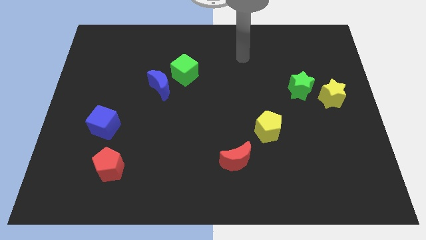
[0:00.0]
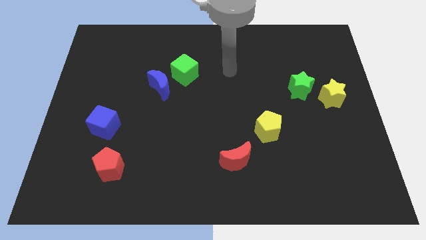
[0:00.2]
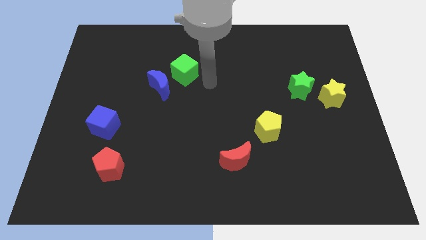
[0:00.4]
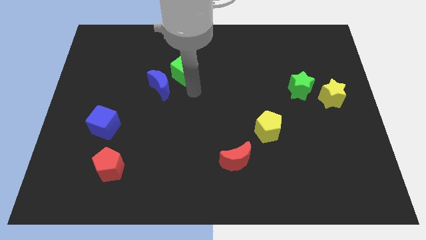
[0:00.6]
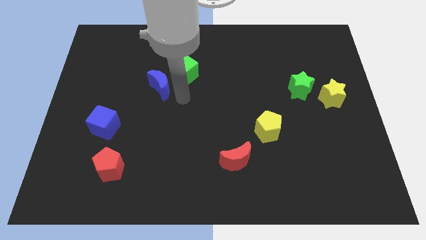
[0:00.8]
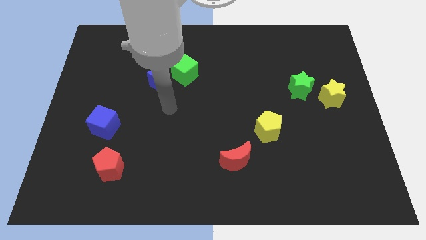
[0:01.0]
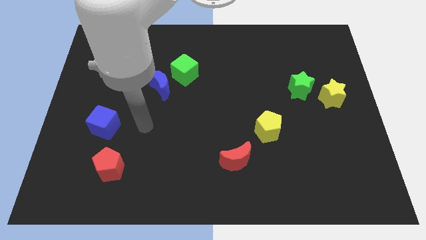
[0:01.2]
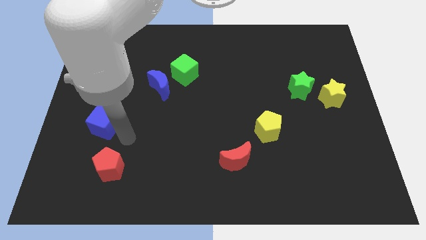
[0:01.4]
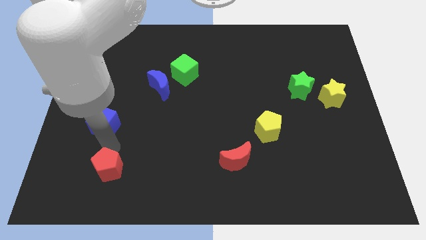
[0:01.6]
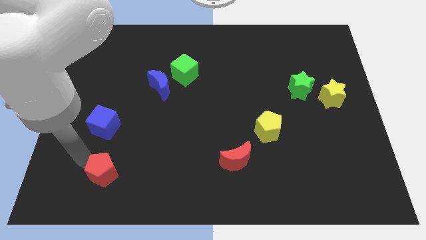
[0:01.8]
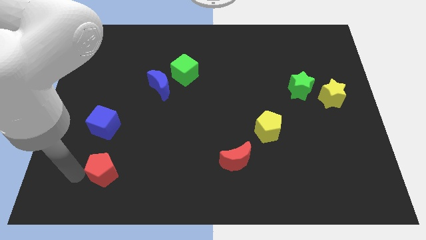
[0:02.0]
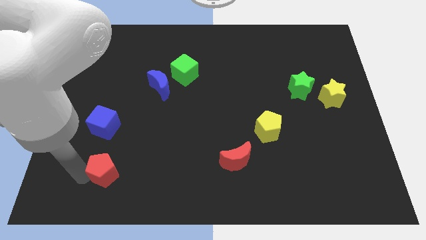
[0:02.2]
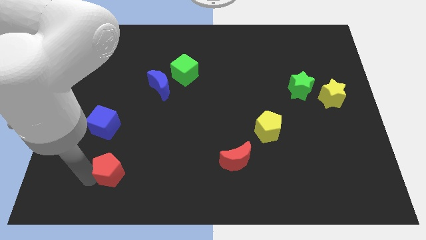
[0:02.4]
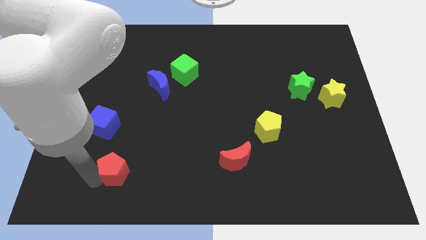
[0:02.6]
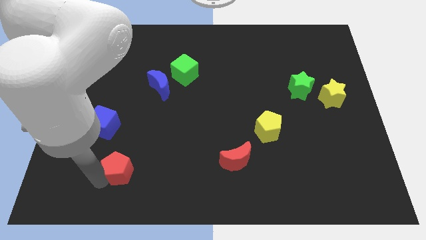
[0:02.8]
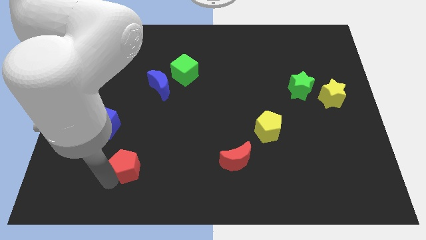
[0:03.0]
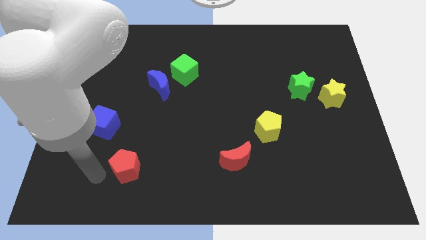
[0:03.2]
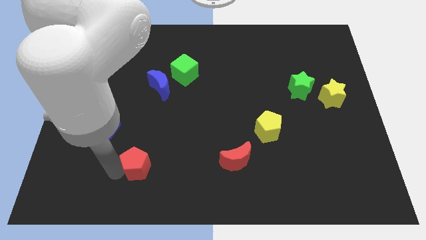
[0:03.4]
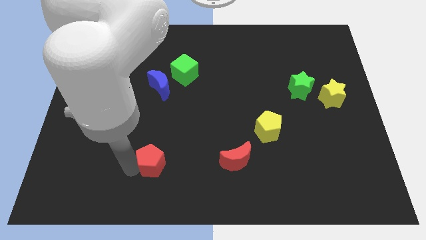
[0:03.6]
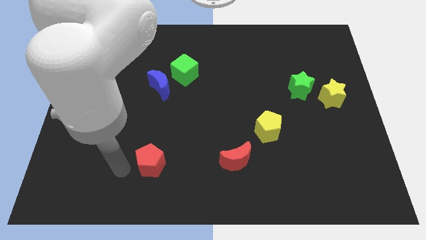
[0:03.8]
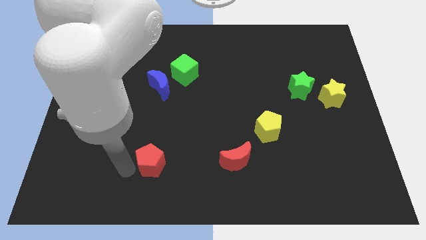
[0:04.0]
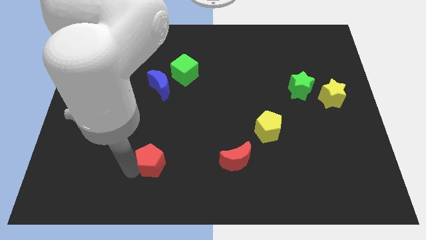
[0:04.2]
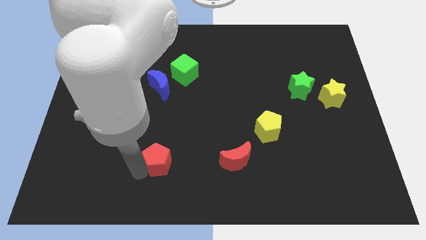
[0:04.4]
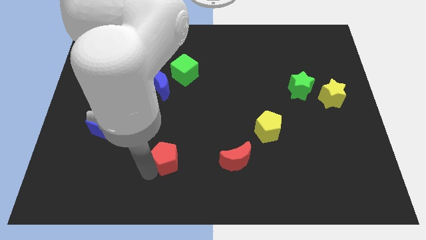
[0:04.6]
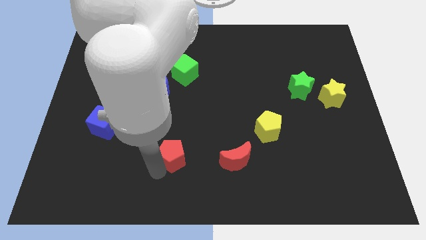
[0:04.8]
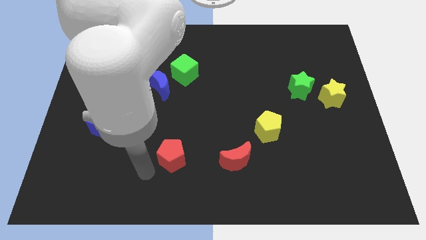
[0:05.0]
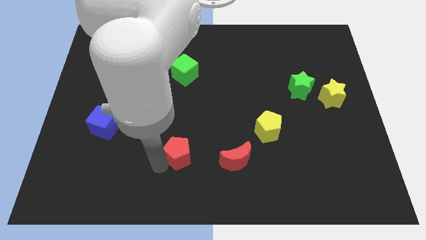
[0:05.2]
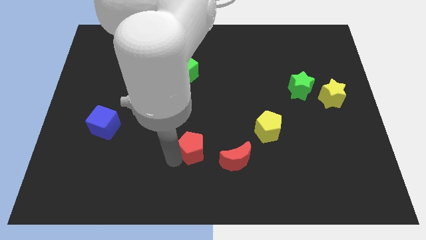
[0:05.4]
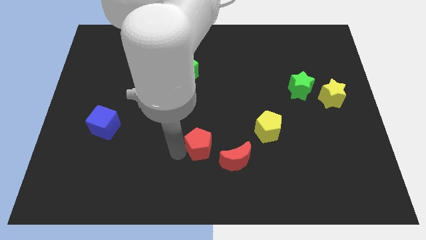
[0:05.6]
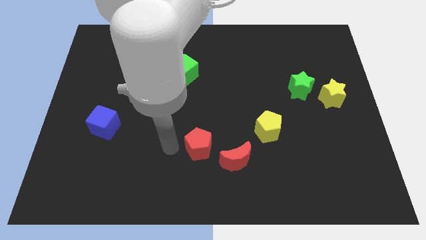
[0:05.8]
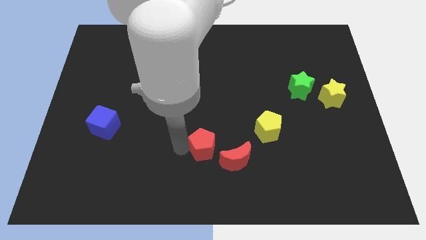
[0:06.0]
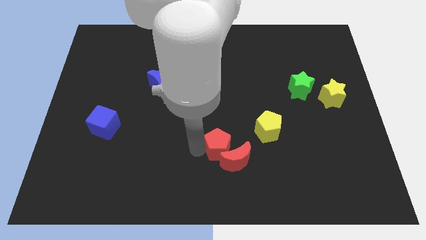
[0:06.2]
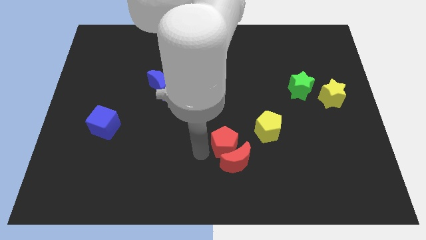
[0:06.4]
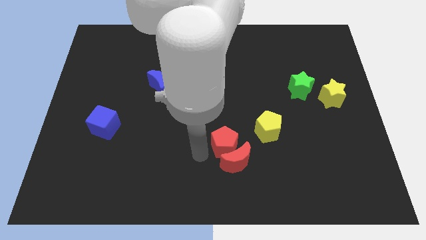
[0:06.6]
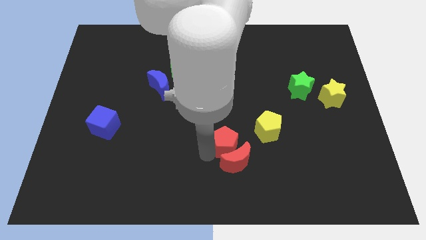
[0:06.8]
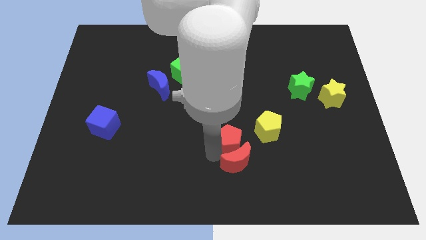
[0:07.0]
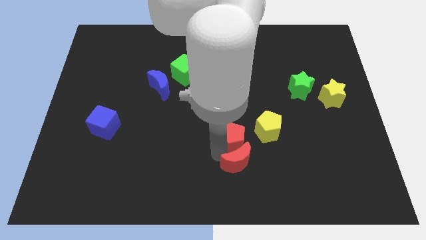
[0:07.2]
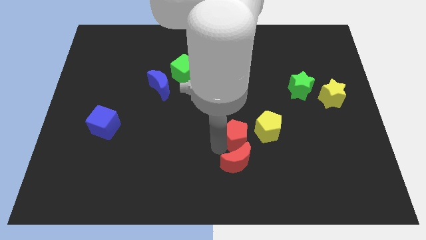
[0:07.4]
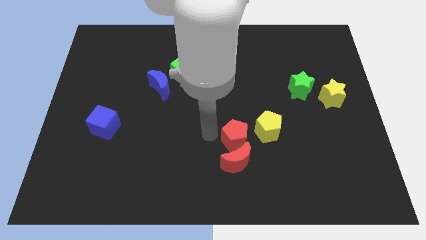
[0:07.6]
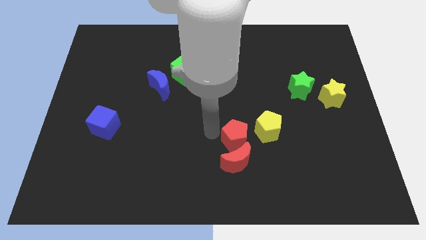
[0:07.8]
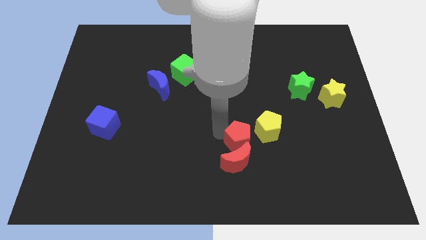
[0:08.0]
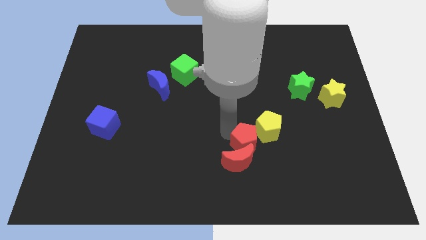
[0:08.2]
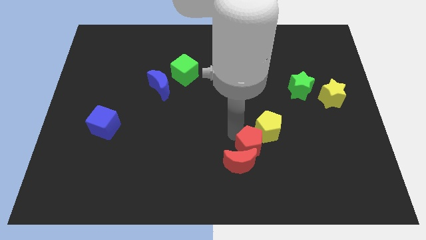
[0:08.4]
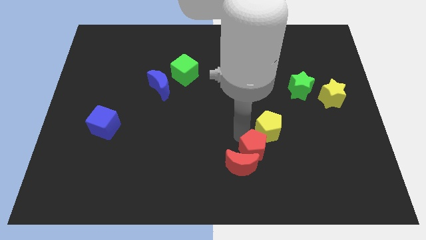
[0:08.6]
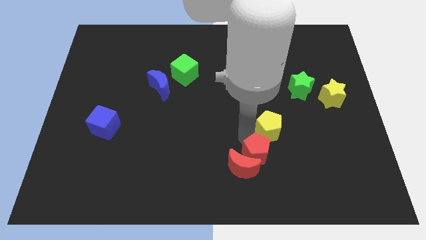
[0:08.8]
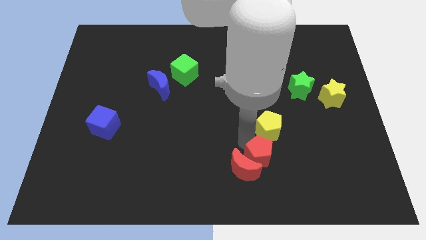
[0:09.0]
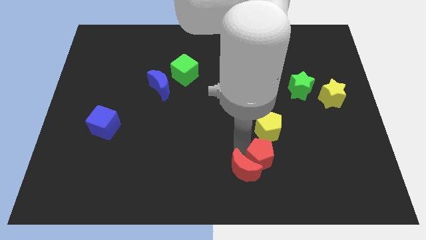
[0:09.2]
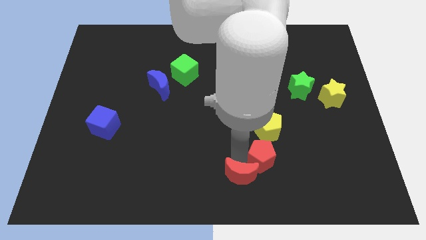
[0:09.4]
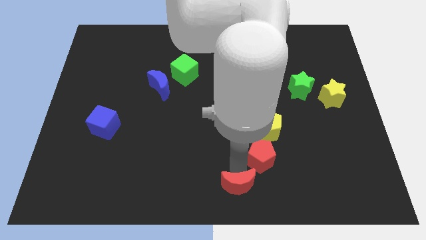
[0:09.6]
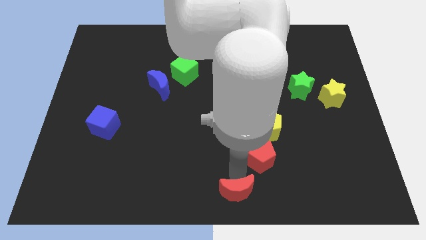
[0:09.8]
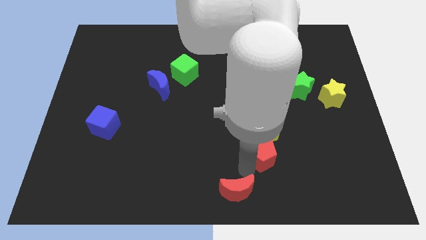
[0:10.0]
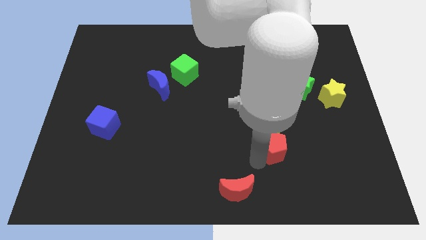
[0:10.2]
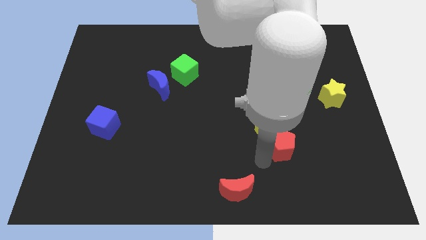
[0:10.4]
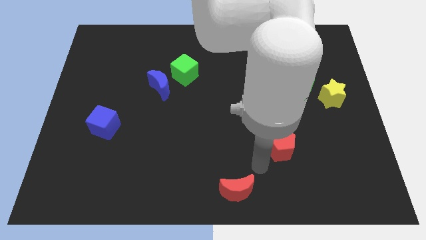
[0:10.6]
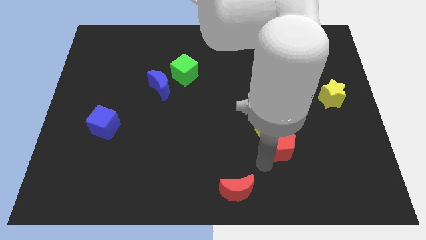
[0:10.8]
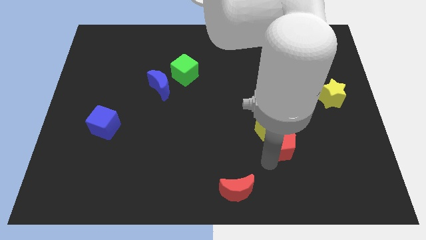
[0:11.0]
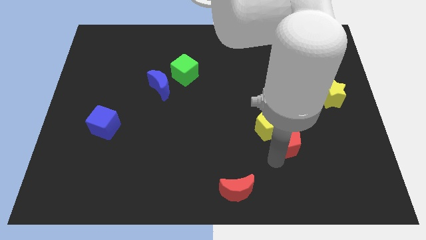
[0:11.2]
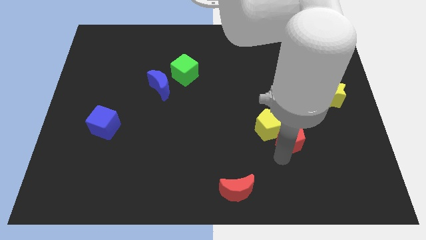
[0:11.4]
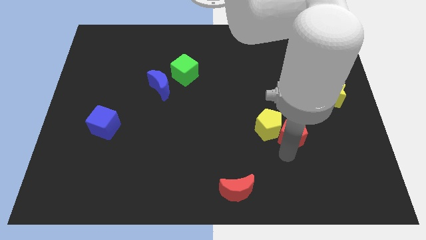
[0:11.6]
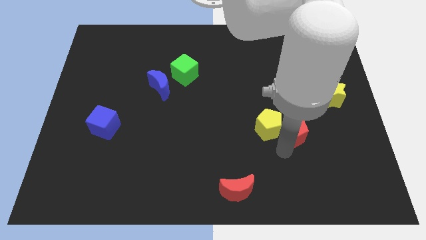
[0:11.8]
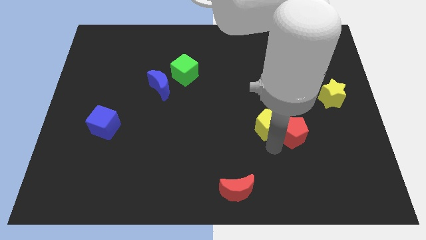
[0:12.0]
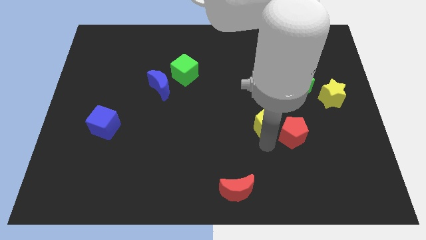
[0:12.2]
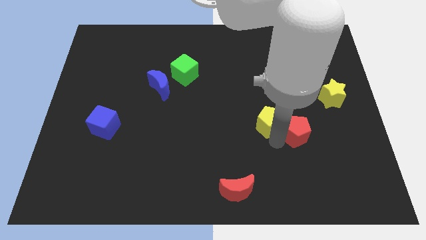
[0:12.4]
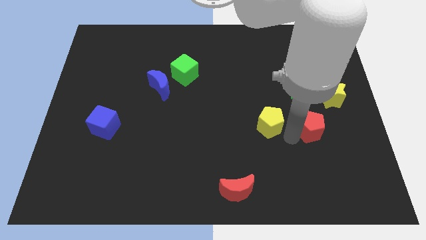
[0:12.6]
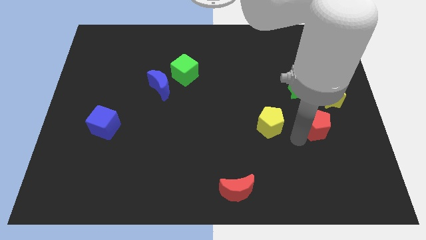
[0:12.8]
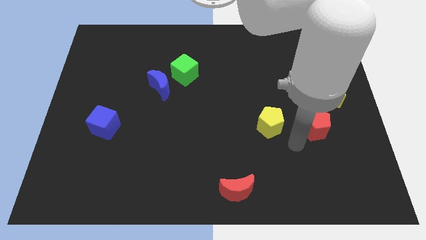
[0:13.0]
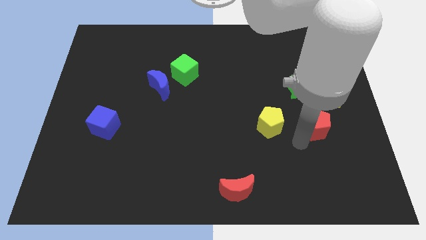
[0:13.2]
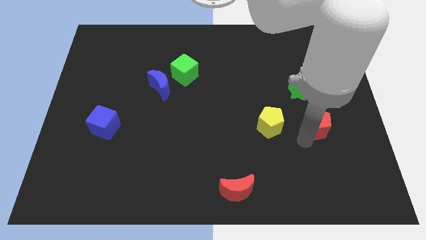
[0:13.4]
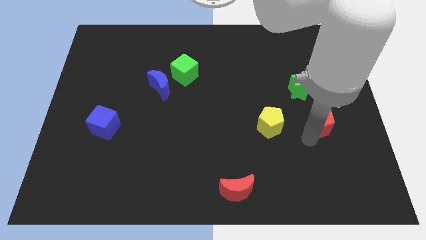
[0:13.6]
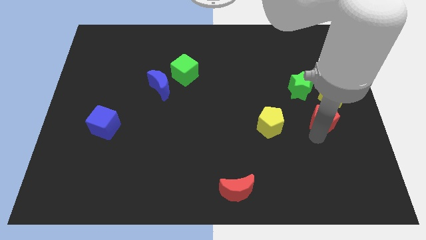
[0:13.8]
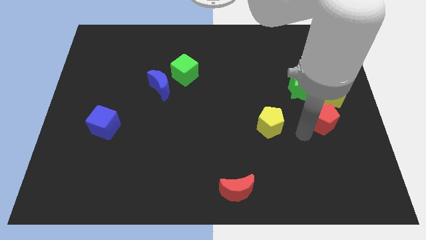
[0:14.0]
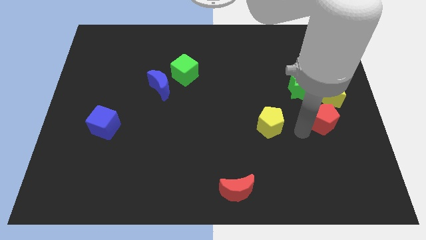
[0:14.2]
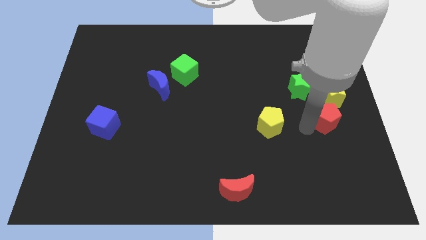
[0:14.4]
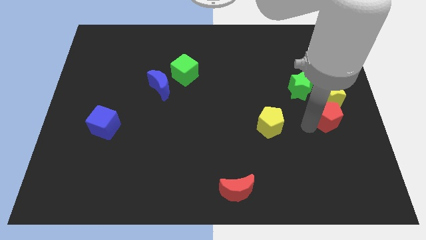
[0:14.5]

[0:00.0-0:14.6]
put the red pentagon to the center right
